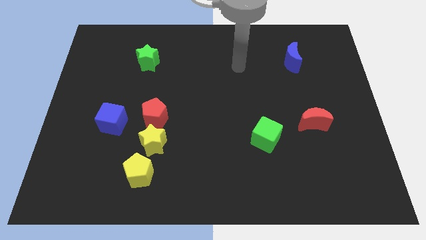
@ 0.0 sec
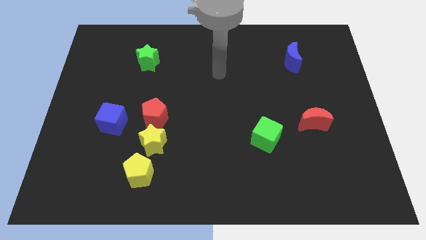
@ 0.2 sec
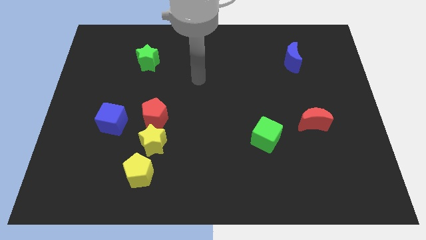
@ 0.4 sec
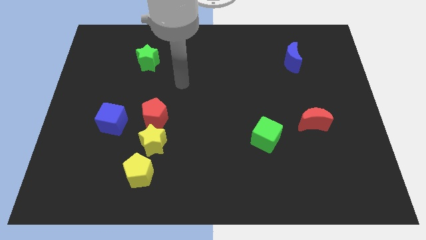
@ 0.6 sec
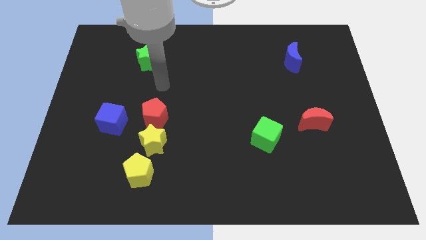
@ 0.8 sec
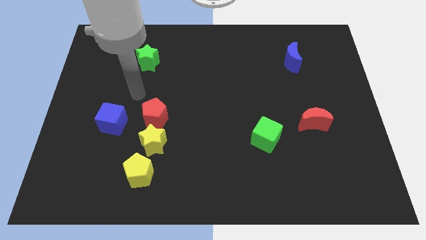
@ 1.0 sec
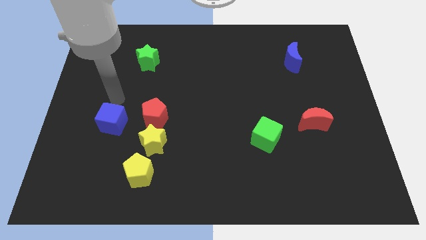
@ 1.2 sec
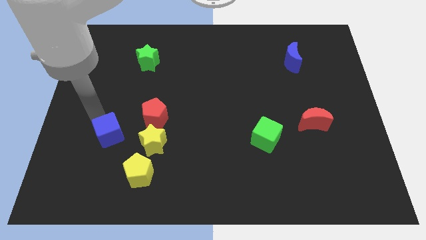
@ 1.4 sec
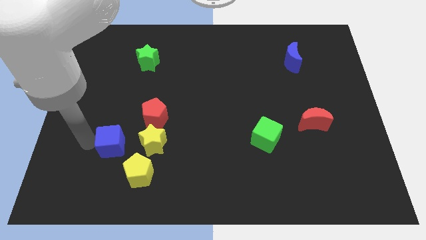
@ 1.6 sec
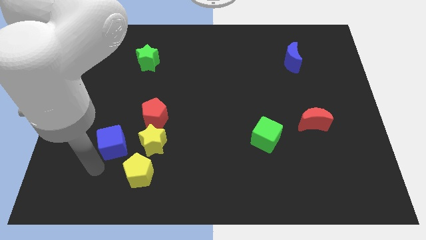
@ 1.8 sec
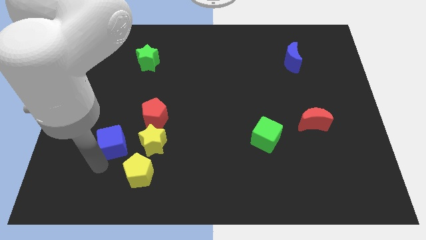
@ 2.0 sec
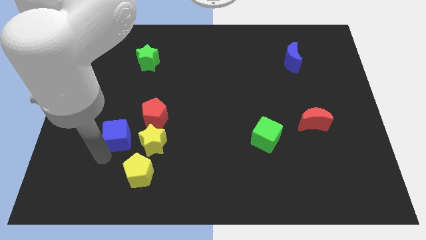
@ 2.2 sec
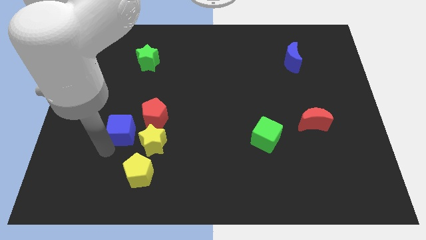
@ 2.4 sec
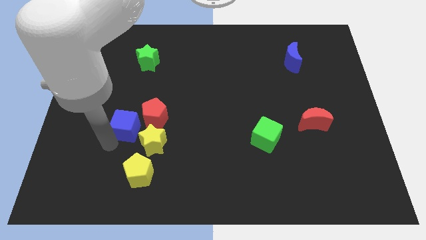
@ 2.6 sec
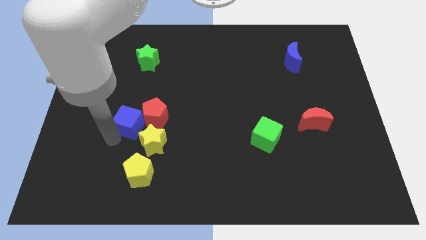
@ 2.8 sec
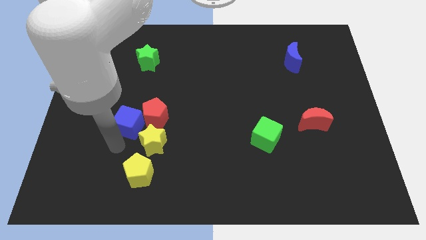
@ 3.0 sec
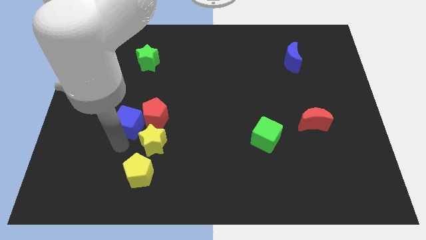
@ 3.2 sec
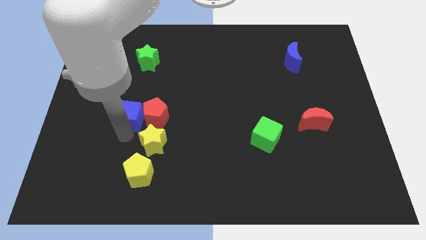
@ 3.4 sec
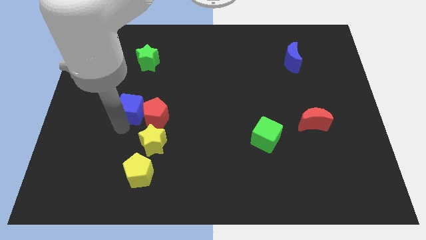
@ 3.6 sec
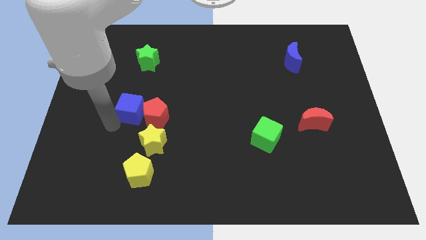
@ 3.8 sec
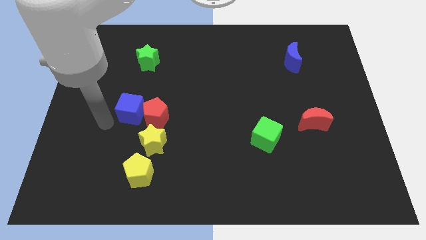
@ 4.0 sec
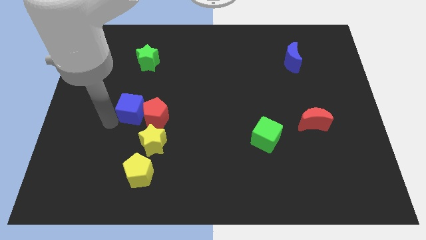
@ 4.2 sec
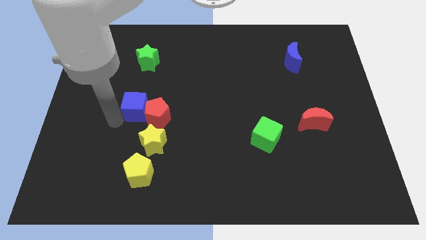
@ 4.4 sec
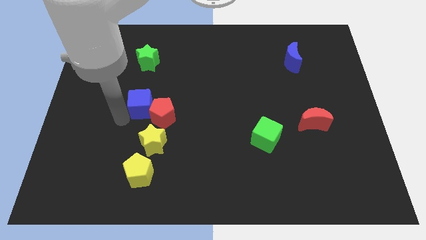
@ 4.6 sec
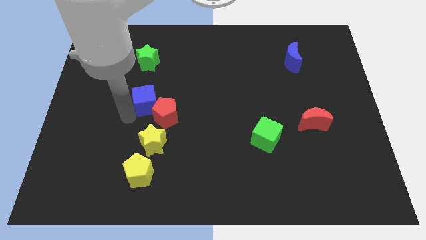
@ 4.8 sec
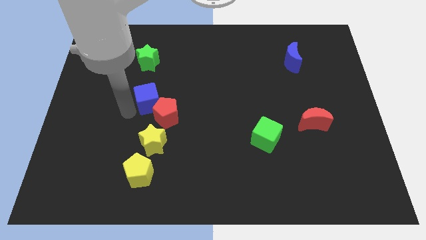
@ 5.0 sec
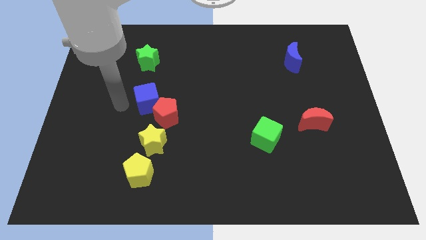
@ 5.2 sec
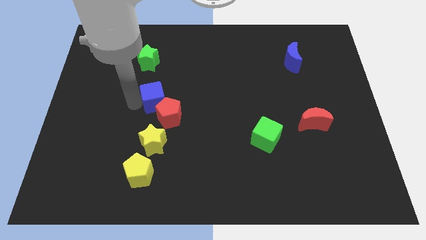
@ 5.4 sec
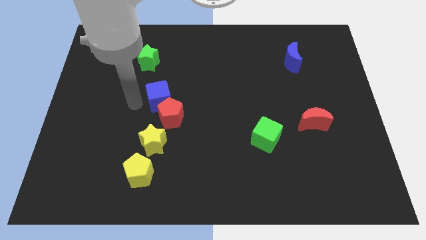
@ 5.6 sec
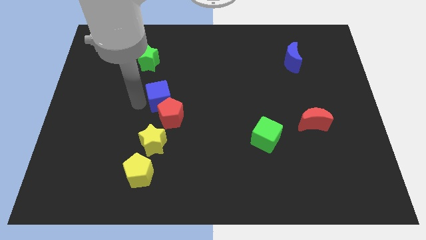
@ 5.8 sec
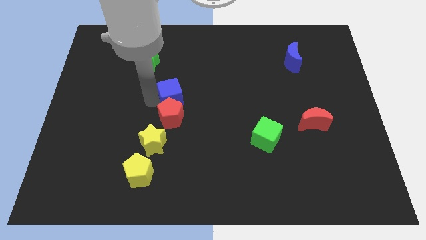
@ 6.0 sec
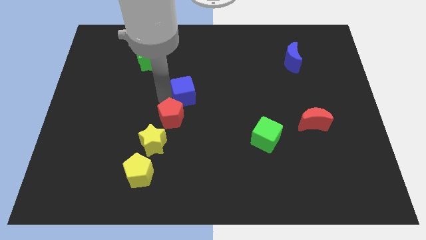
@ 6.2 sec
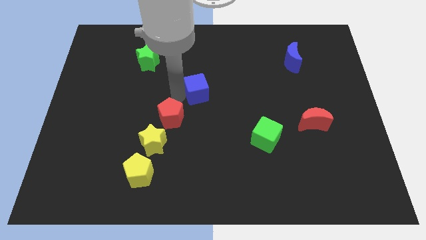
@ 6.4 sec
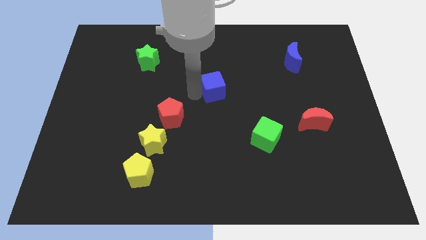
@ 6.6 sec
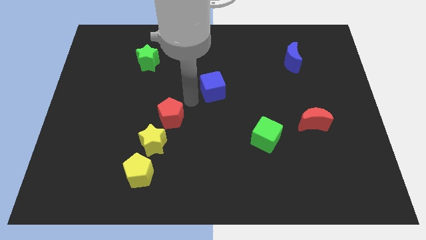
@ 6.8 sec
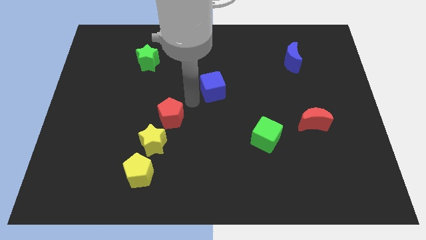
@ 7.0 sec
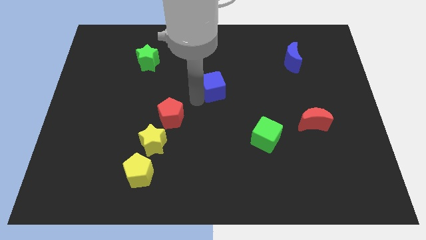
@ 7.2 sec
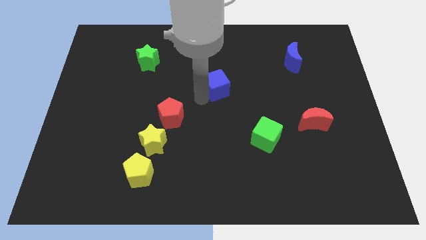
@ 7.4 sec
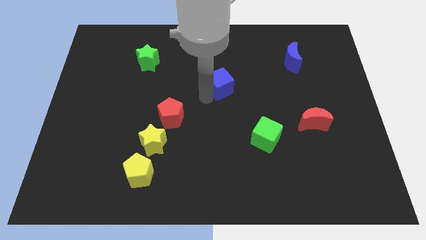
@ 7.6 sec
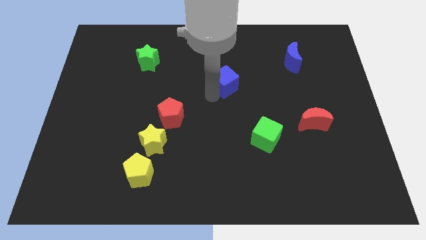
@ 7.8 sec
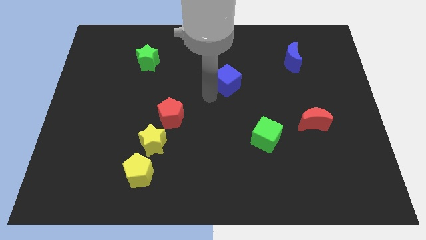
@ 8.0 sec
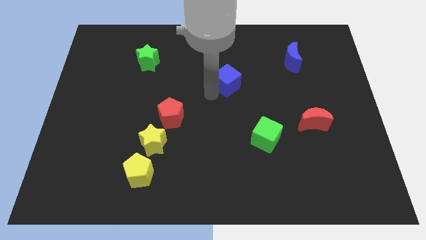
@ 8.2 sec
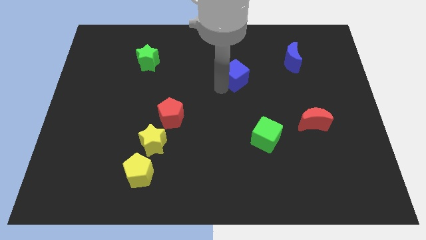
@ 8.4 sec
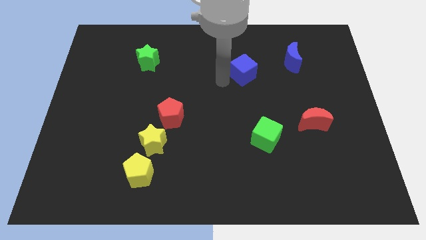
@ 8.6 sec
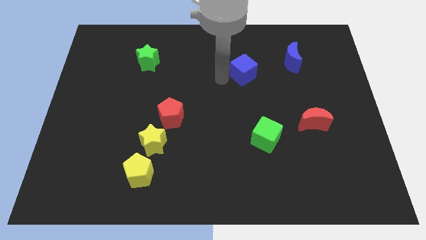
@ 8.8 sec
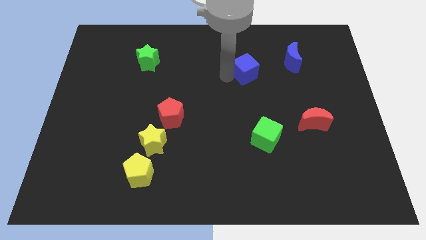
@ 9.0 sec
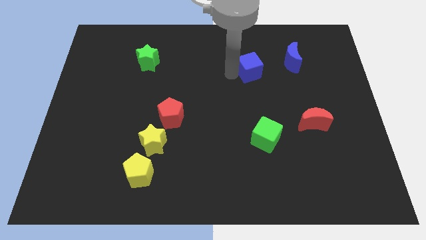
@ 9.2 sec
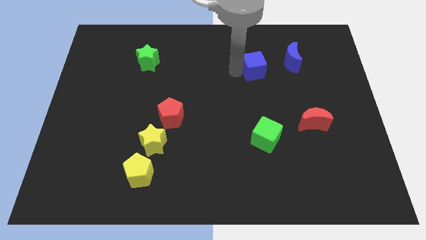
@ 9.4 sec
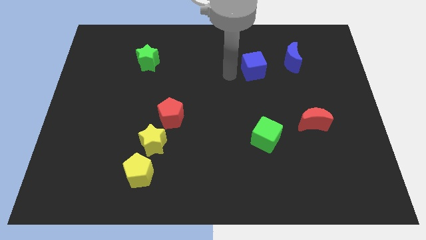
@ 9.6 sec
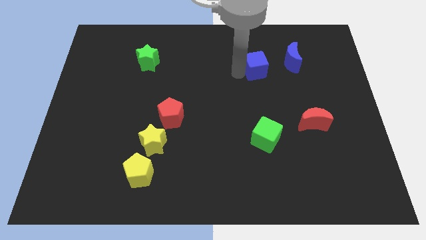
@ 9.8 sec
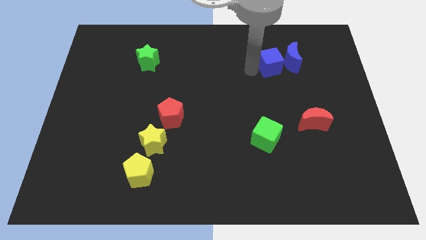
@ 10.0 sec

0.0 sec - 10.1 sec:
put the blue cube close to the blue moon

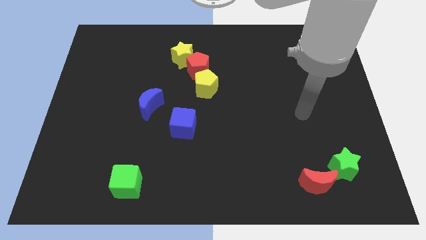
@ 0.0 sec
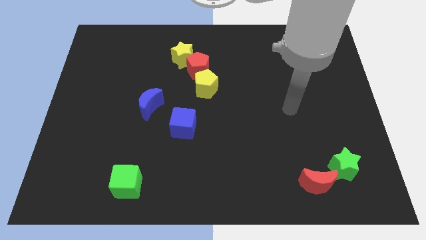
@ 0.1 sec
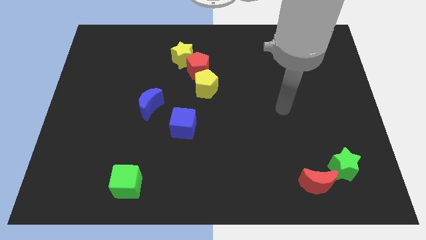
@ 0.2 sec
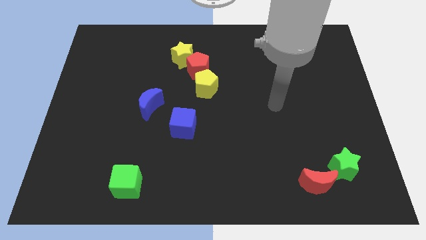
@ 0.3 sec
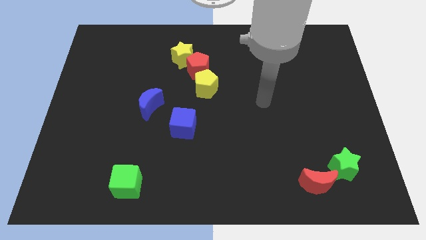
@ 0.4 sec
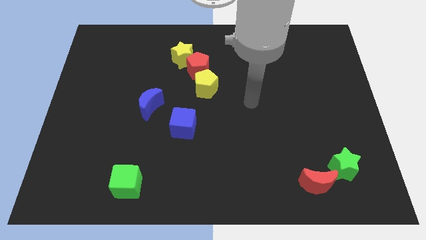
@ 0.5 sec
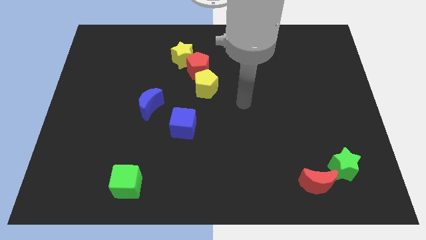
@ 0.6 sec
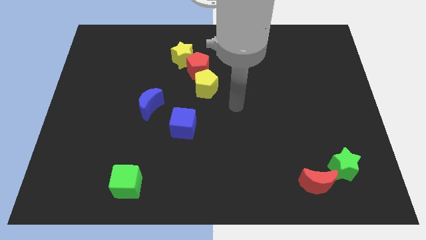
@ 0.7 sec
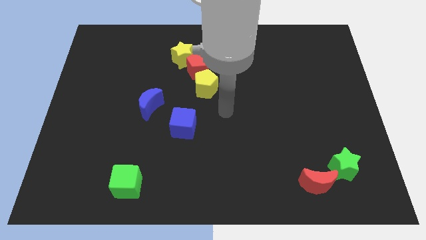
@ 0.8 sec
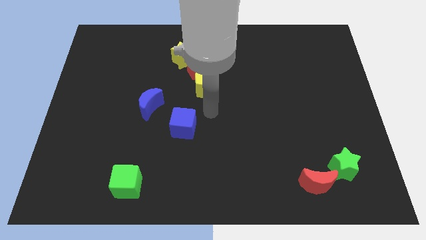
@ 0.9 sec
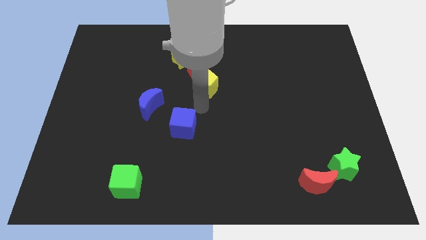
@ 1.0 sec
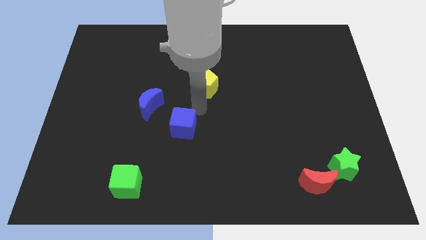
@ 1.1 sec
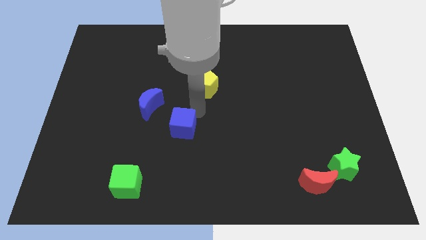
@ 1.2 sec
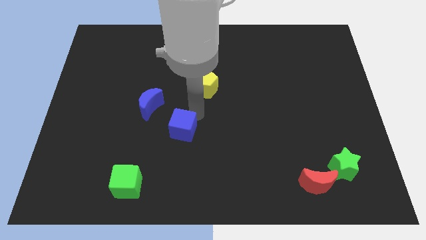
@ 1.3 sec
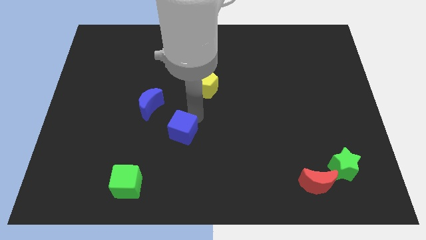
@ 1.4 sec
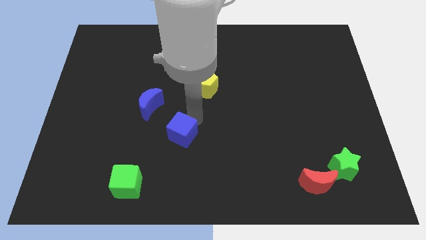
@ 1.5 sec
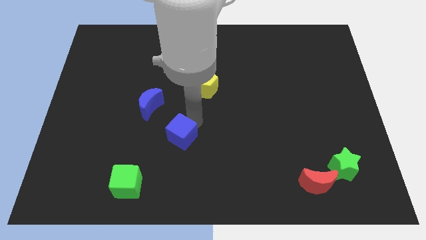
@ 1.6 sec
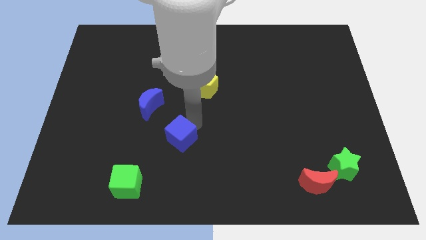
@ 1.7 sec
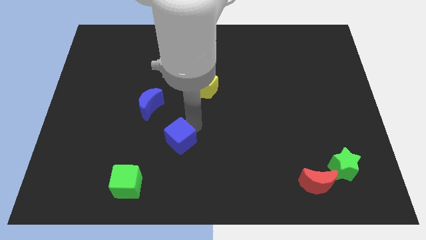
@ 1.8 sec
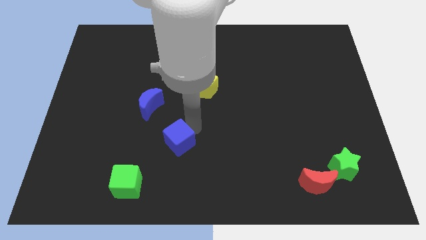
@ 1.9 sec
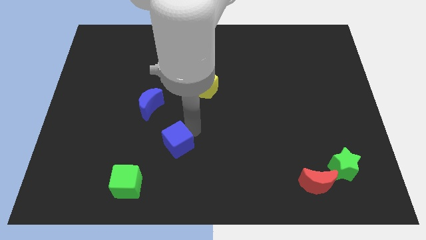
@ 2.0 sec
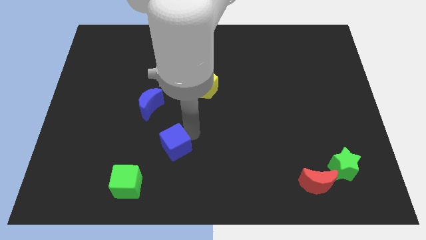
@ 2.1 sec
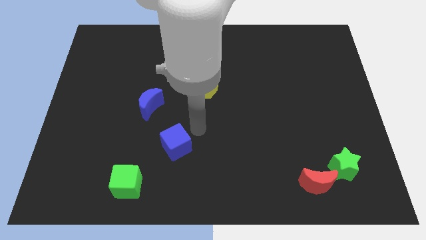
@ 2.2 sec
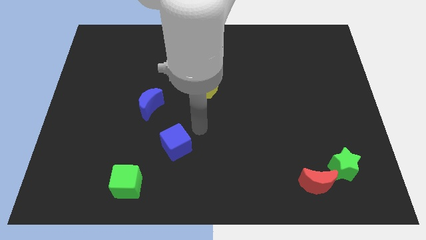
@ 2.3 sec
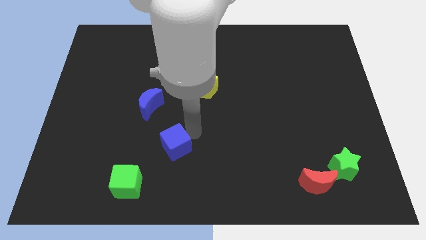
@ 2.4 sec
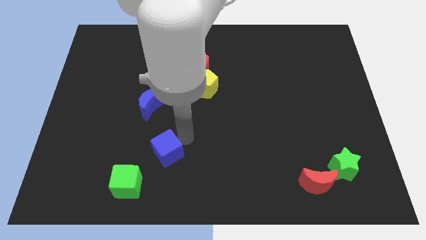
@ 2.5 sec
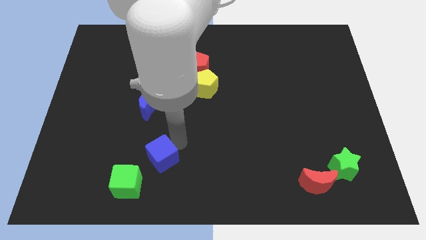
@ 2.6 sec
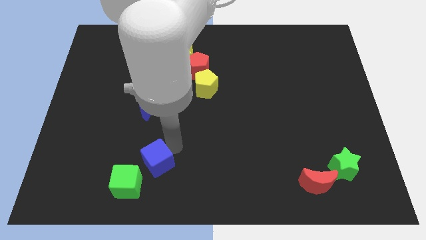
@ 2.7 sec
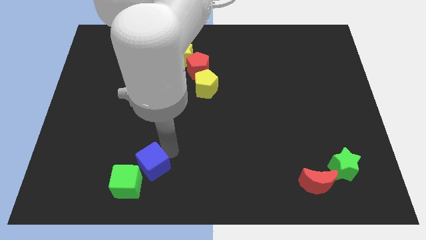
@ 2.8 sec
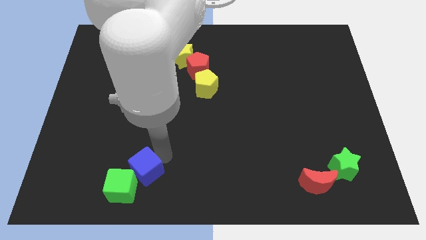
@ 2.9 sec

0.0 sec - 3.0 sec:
put the blue cube close to the green cube
